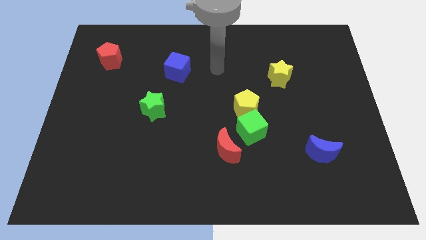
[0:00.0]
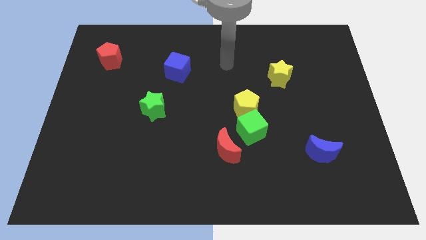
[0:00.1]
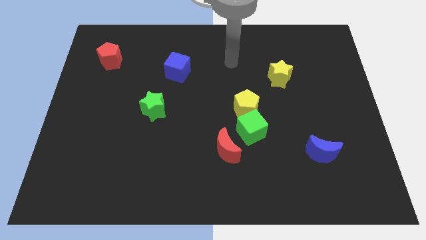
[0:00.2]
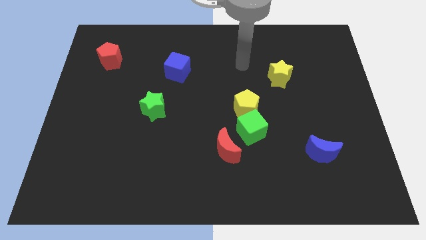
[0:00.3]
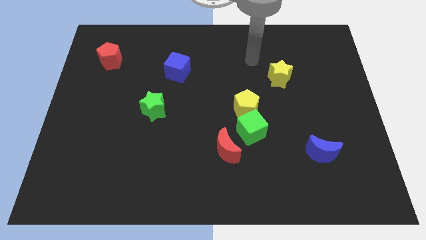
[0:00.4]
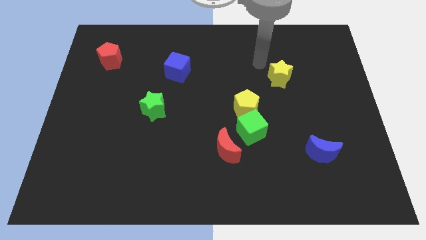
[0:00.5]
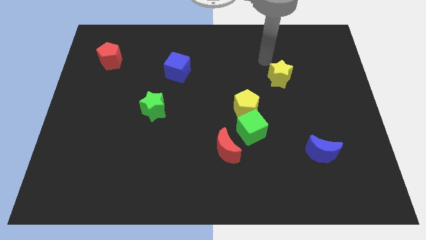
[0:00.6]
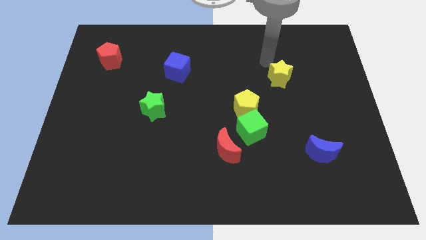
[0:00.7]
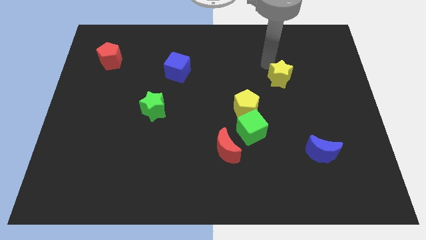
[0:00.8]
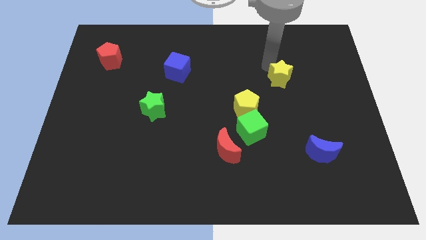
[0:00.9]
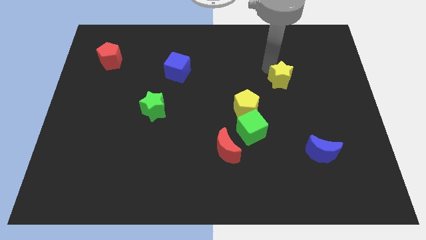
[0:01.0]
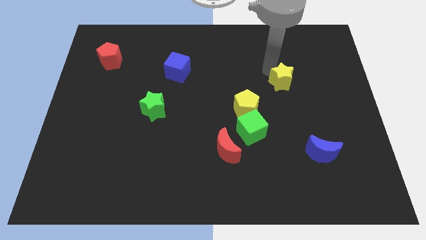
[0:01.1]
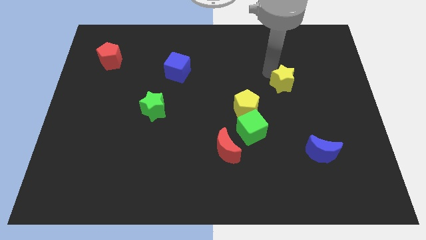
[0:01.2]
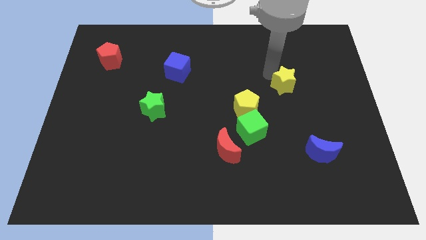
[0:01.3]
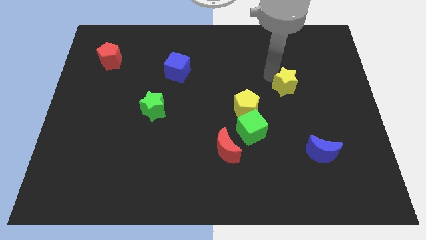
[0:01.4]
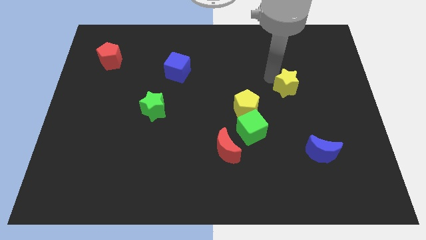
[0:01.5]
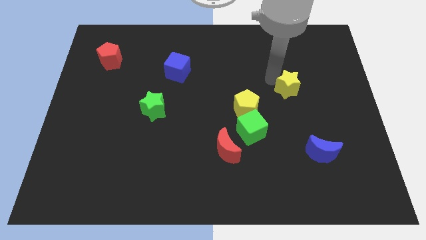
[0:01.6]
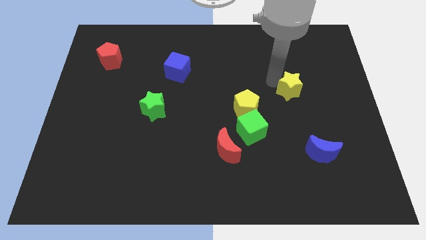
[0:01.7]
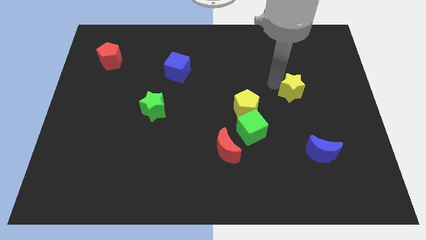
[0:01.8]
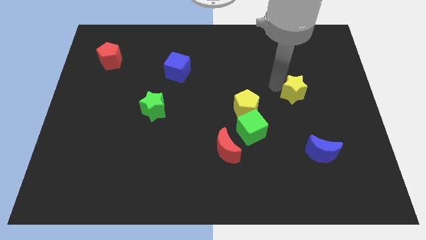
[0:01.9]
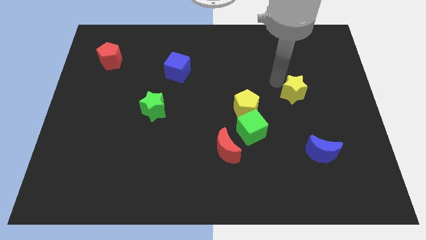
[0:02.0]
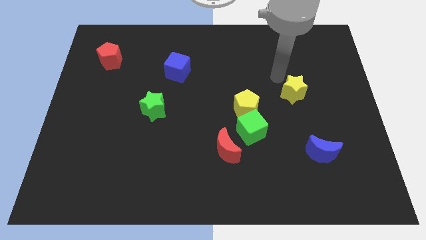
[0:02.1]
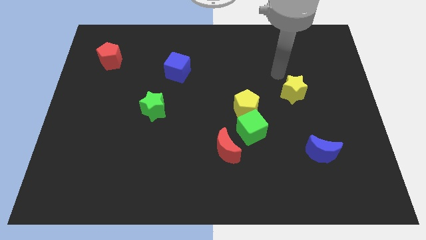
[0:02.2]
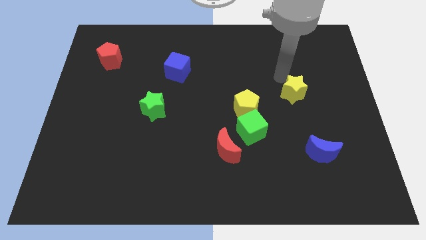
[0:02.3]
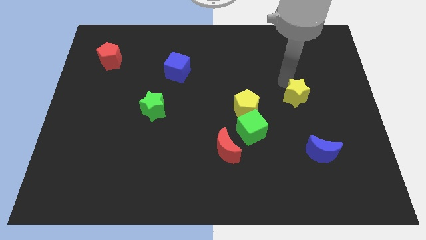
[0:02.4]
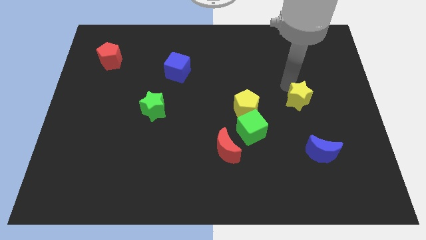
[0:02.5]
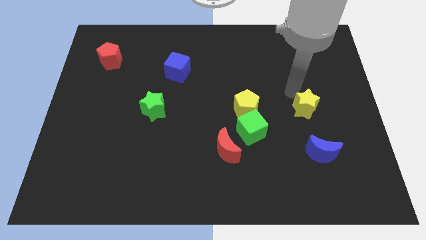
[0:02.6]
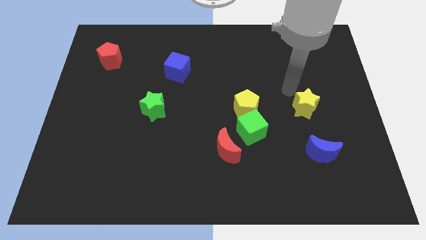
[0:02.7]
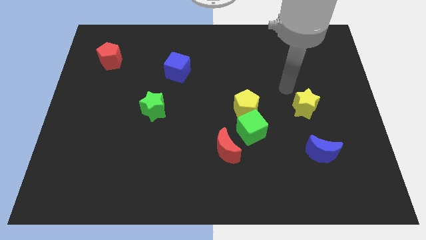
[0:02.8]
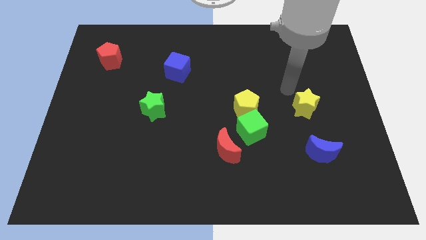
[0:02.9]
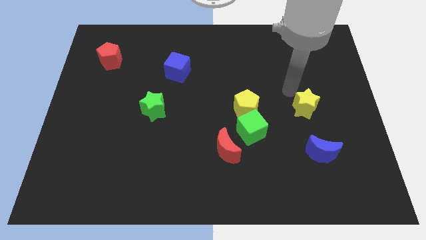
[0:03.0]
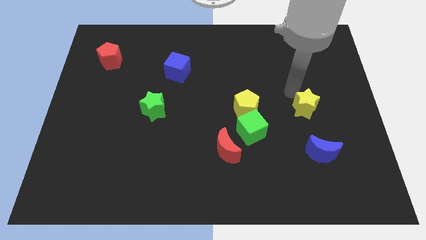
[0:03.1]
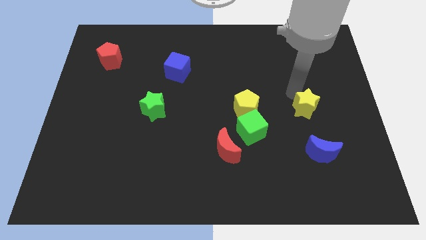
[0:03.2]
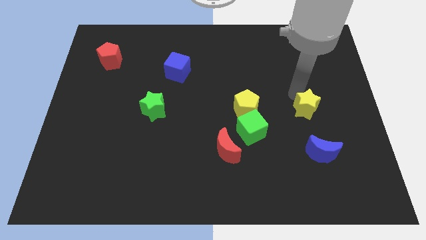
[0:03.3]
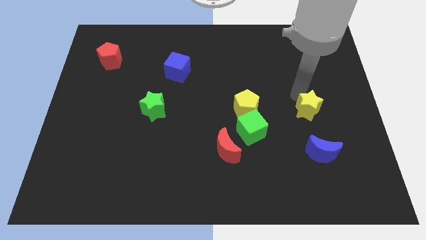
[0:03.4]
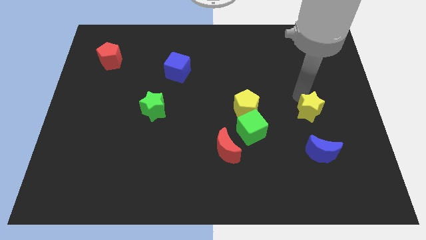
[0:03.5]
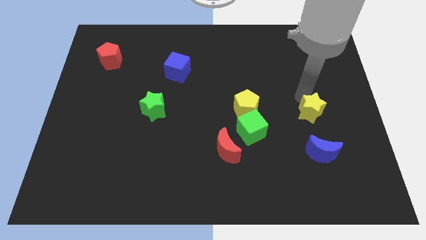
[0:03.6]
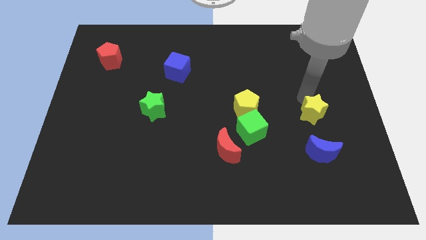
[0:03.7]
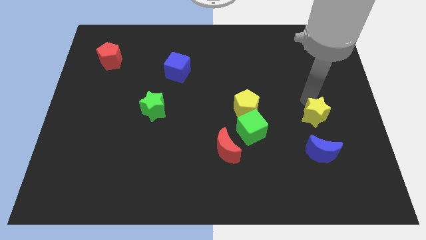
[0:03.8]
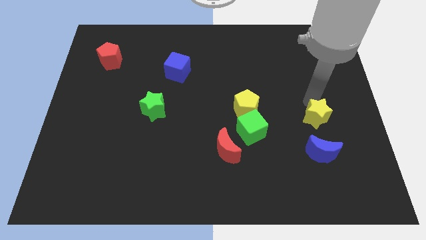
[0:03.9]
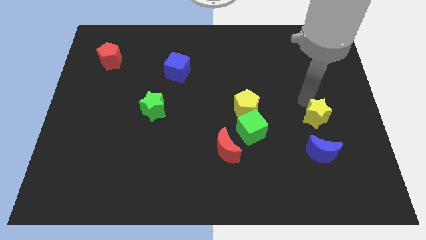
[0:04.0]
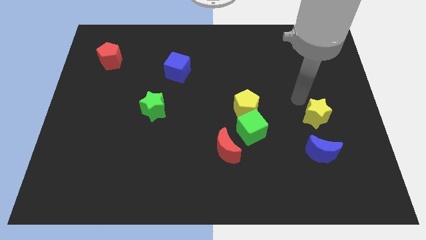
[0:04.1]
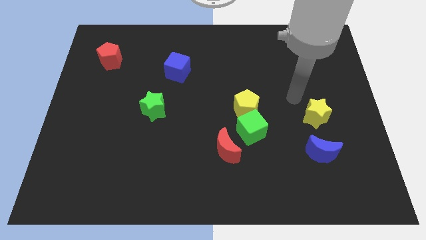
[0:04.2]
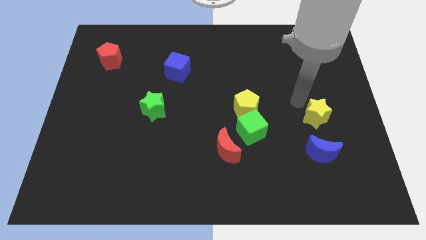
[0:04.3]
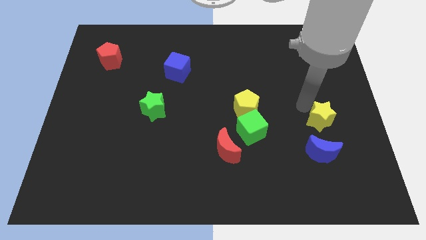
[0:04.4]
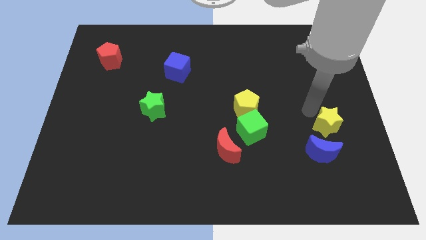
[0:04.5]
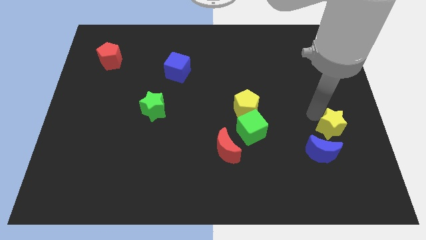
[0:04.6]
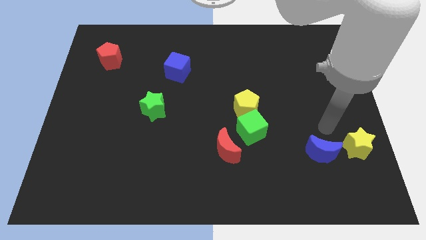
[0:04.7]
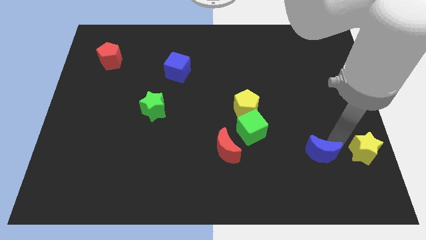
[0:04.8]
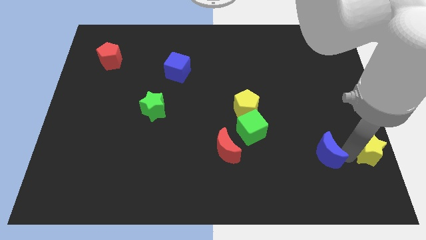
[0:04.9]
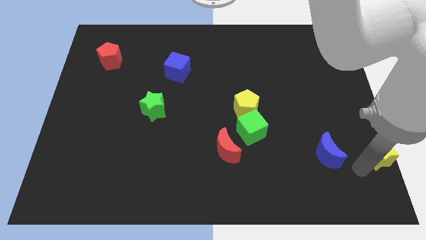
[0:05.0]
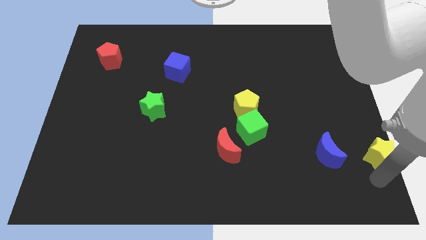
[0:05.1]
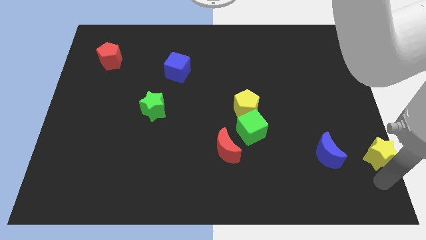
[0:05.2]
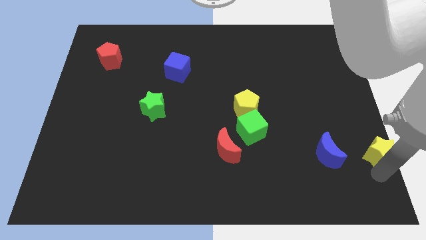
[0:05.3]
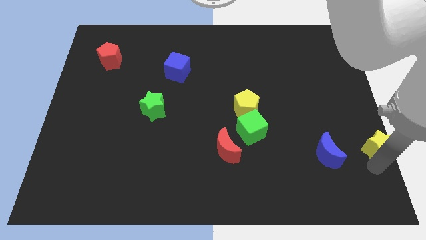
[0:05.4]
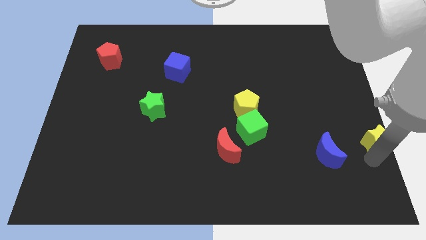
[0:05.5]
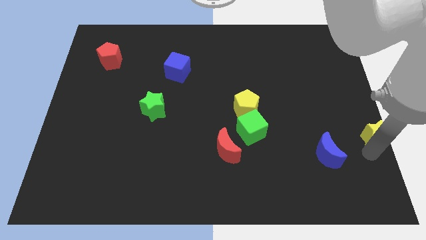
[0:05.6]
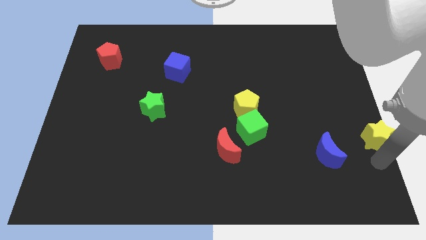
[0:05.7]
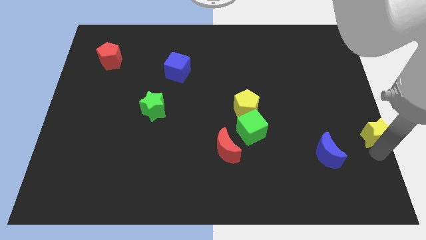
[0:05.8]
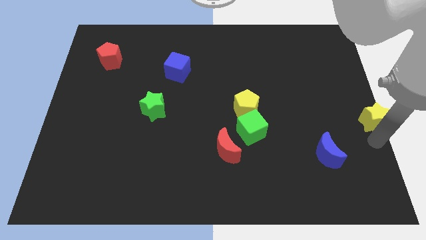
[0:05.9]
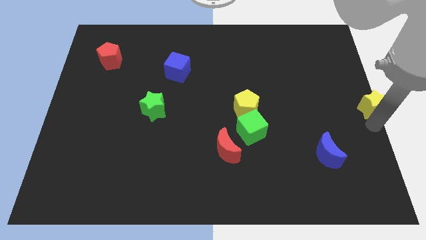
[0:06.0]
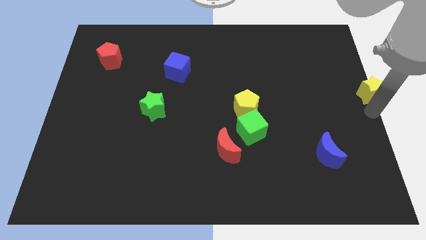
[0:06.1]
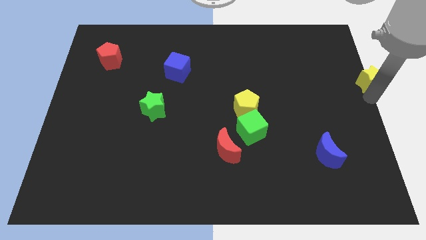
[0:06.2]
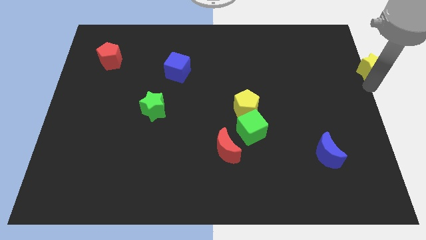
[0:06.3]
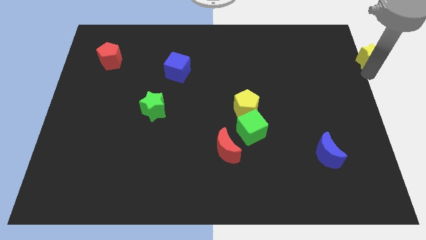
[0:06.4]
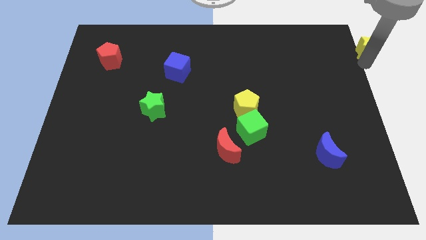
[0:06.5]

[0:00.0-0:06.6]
put the yellow star to the upper right corner
